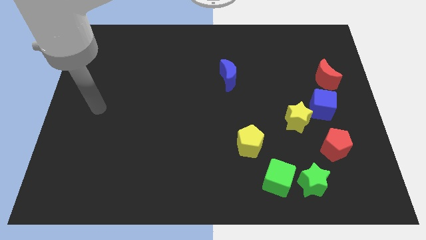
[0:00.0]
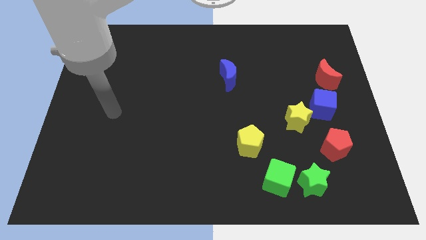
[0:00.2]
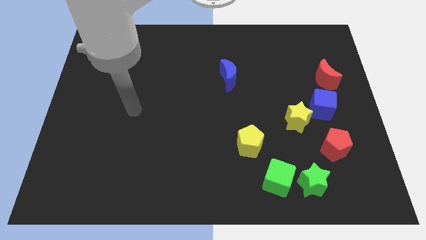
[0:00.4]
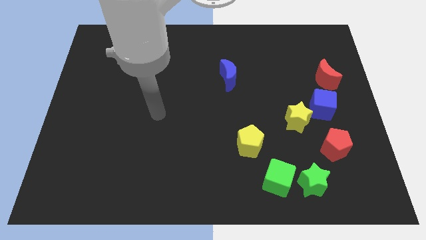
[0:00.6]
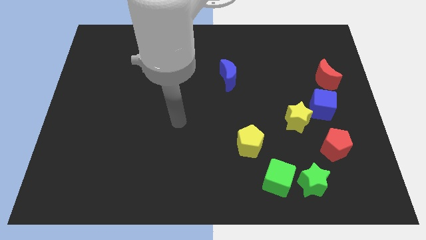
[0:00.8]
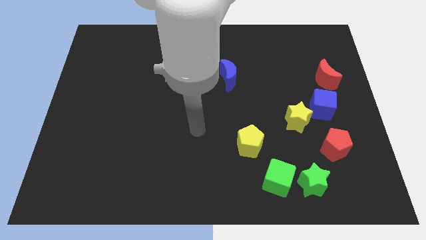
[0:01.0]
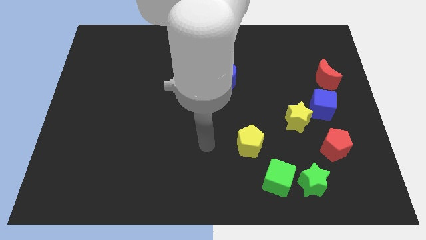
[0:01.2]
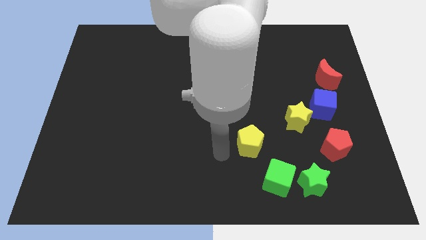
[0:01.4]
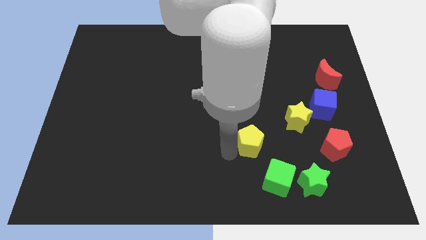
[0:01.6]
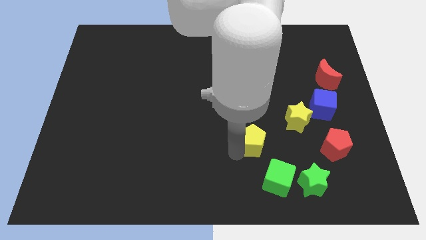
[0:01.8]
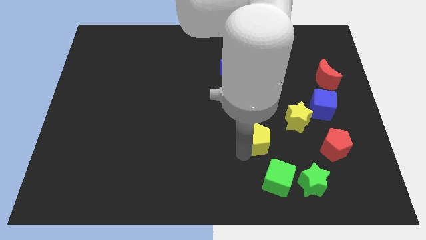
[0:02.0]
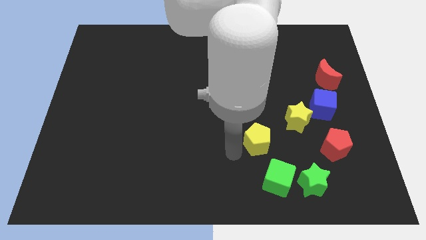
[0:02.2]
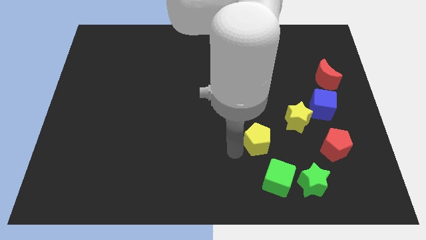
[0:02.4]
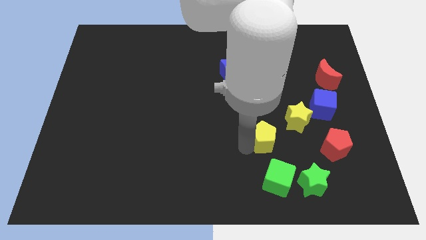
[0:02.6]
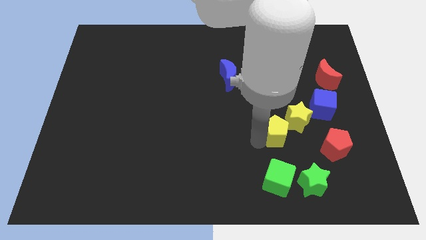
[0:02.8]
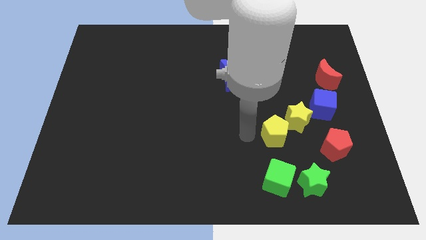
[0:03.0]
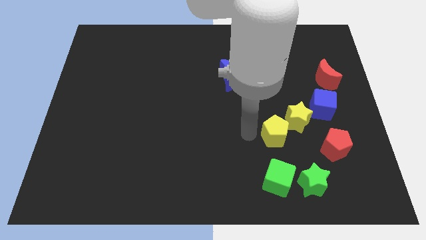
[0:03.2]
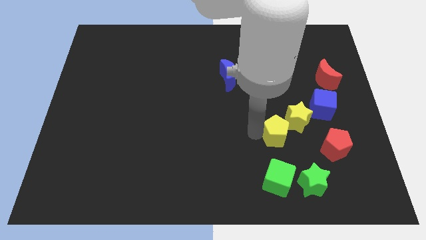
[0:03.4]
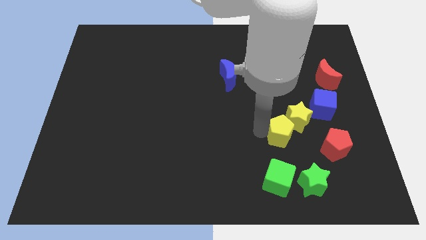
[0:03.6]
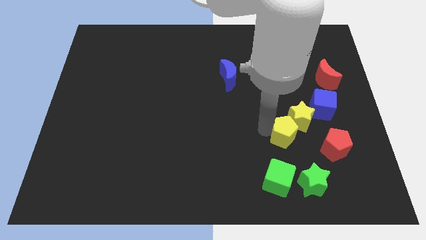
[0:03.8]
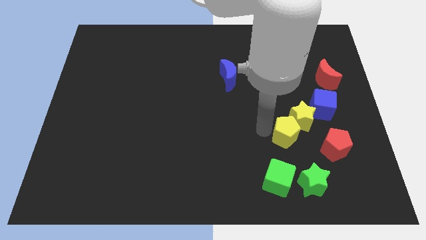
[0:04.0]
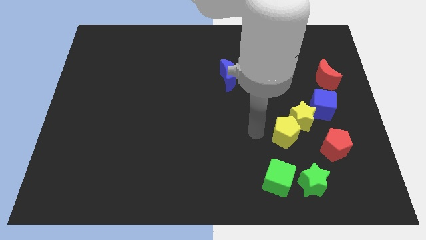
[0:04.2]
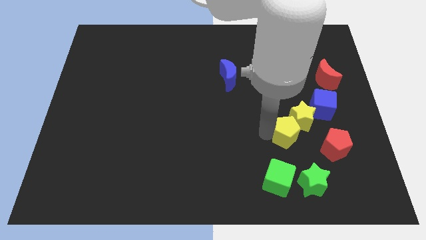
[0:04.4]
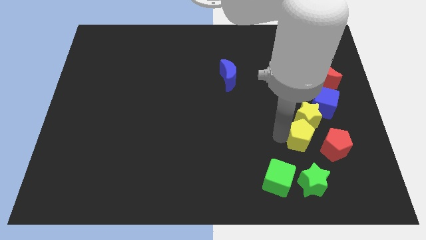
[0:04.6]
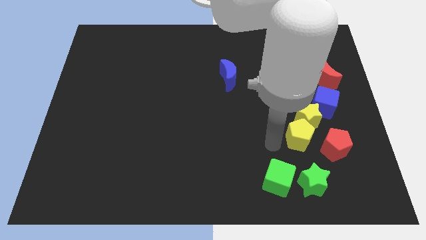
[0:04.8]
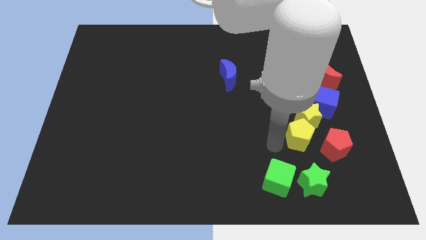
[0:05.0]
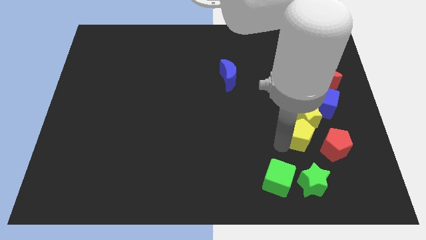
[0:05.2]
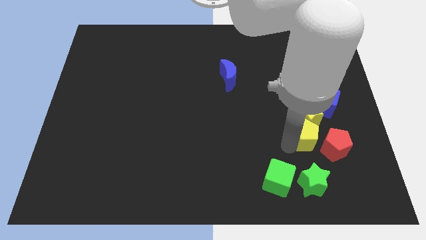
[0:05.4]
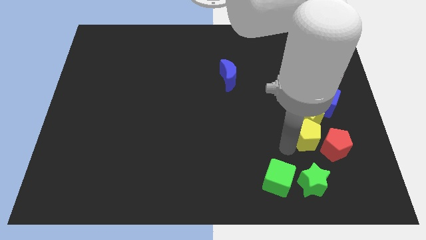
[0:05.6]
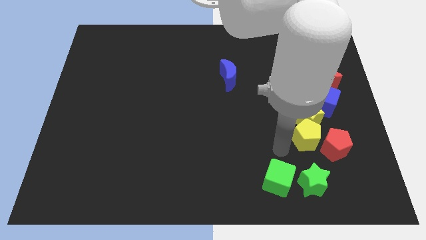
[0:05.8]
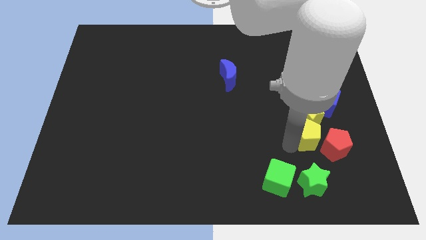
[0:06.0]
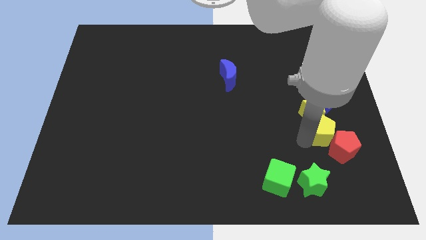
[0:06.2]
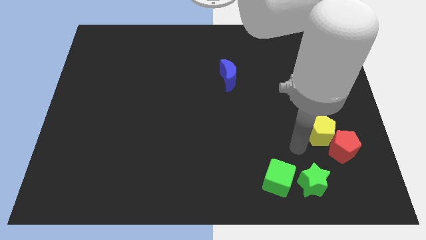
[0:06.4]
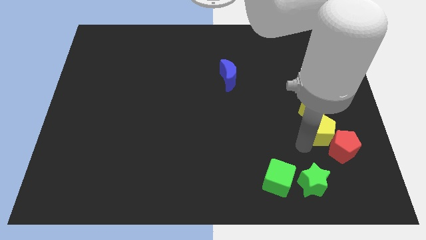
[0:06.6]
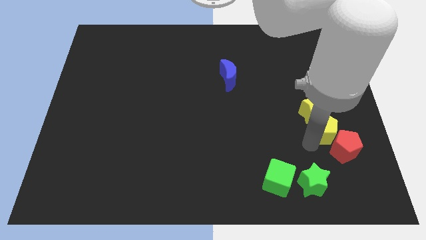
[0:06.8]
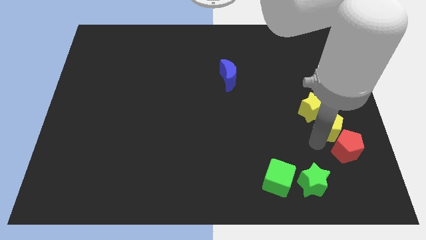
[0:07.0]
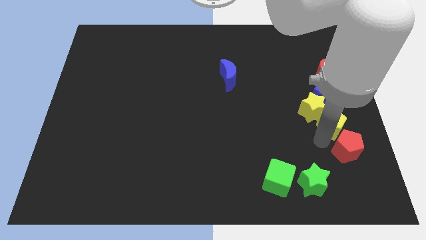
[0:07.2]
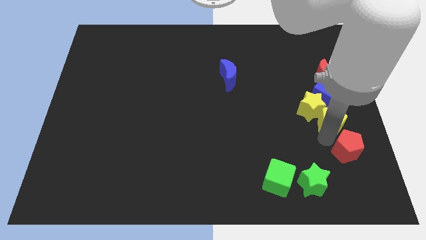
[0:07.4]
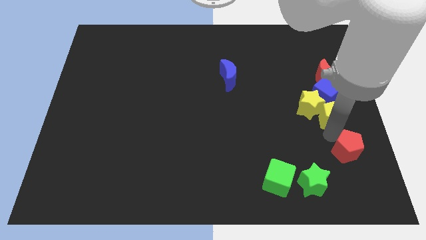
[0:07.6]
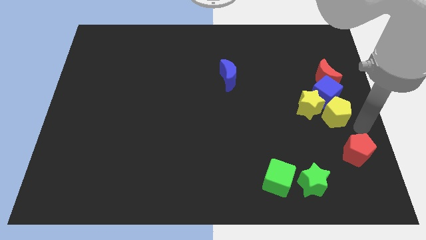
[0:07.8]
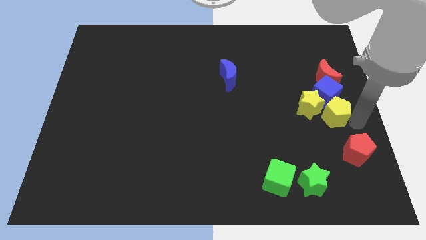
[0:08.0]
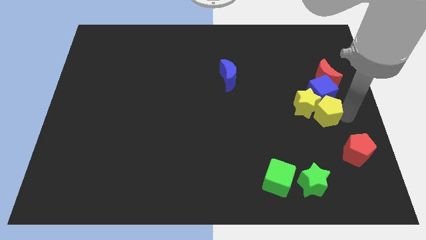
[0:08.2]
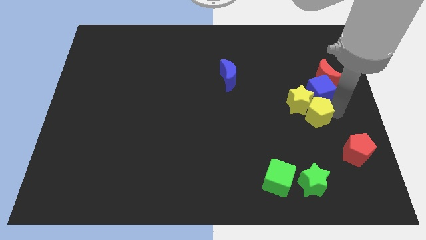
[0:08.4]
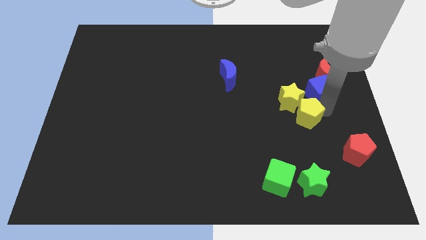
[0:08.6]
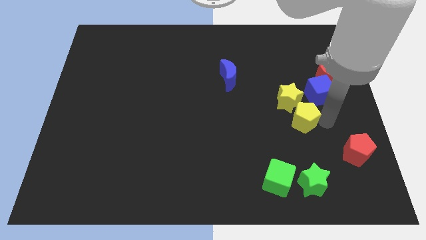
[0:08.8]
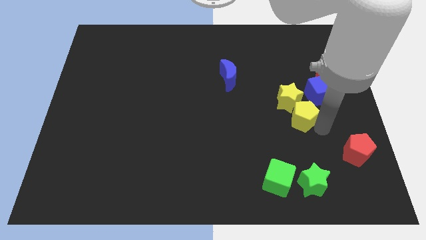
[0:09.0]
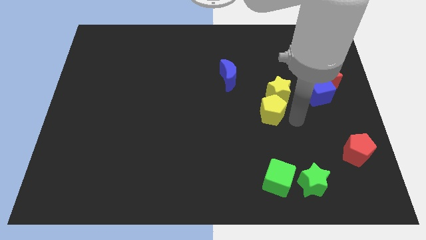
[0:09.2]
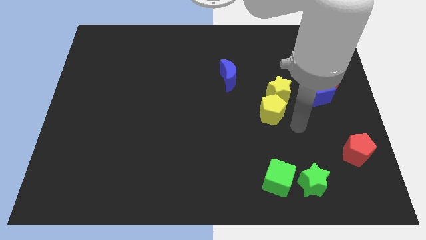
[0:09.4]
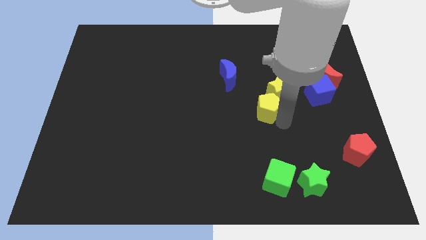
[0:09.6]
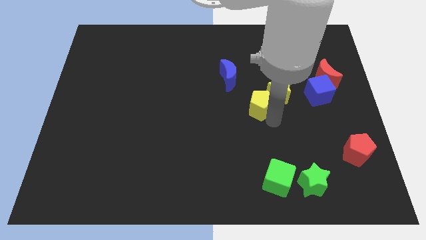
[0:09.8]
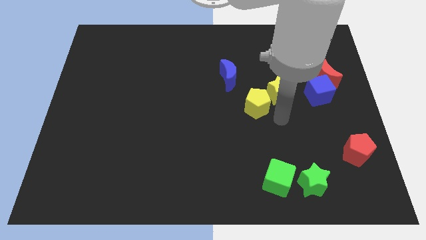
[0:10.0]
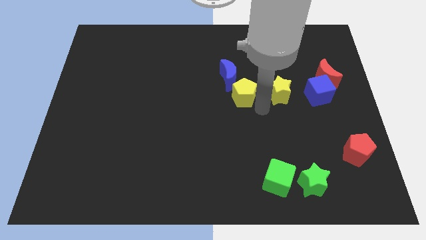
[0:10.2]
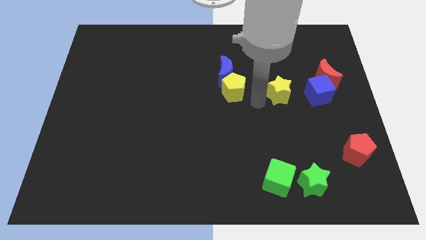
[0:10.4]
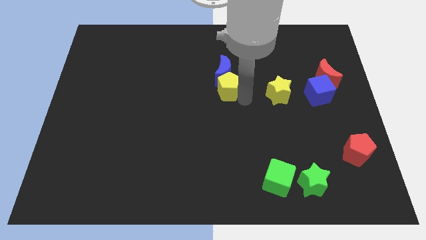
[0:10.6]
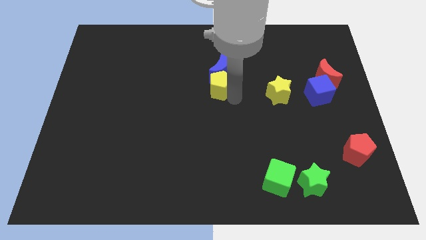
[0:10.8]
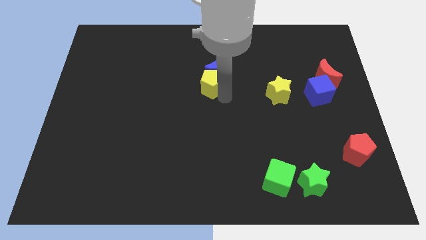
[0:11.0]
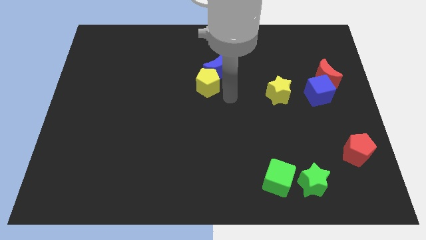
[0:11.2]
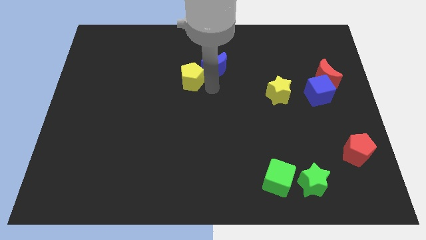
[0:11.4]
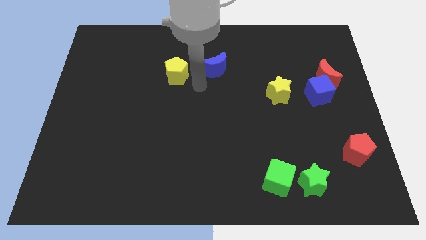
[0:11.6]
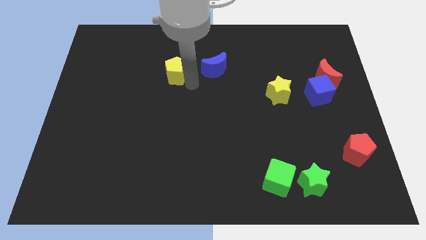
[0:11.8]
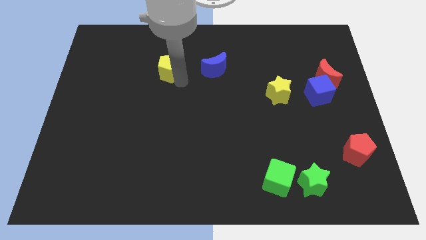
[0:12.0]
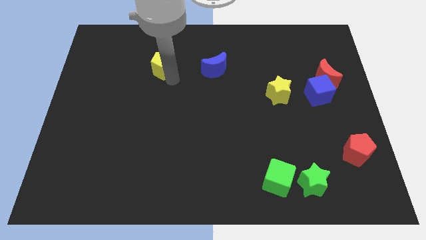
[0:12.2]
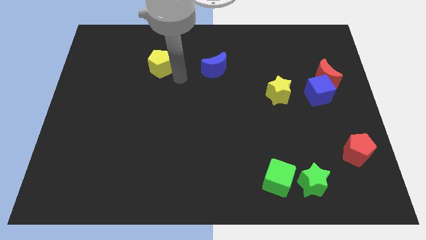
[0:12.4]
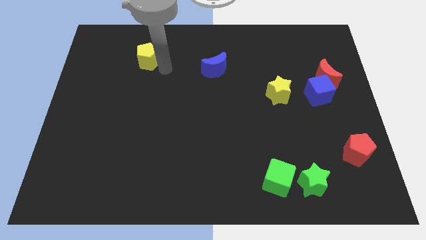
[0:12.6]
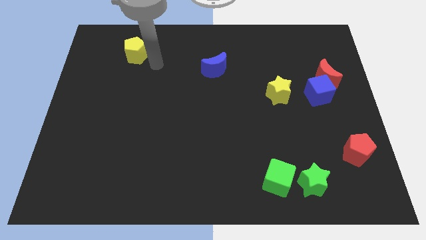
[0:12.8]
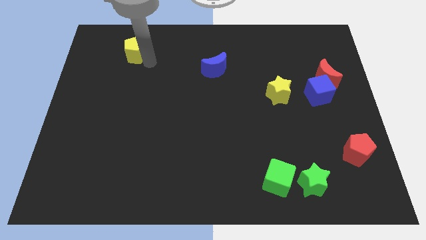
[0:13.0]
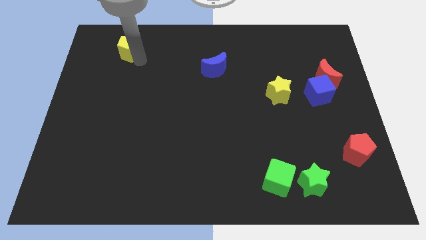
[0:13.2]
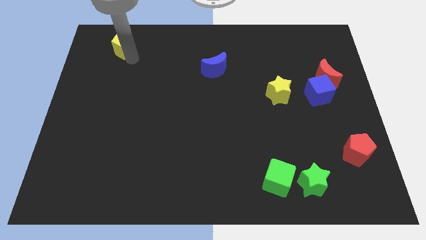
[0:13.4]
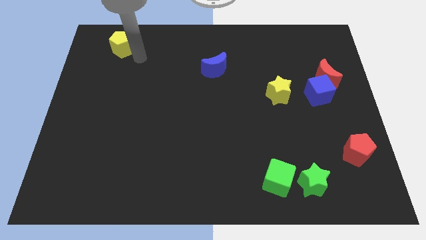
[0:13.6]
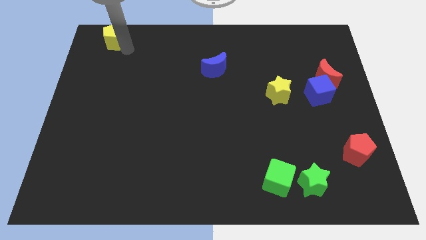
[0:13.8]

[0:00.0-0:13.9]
put the yellow pentagon to the top left

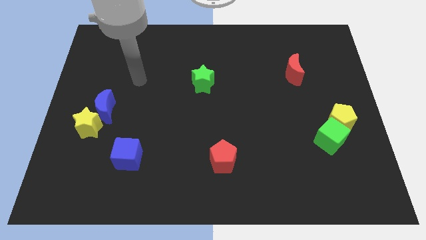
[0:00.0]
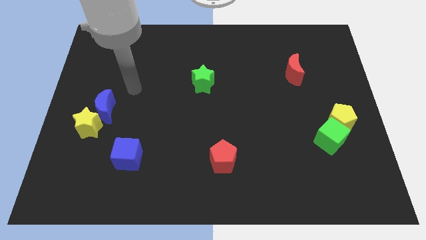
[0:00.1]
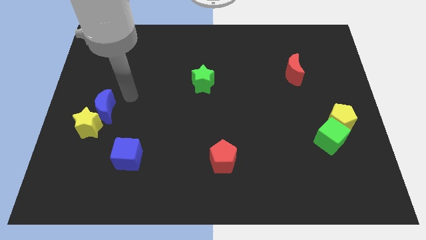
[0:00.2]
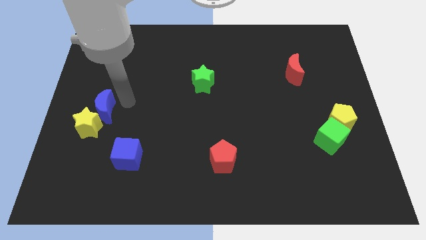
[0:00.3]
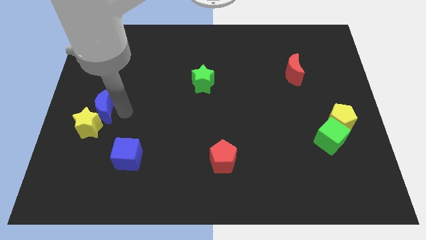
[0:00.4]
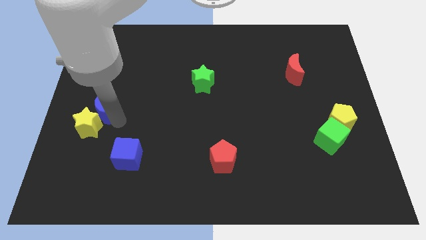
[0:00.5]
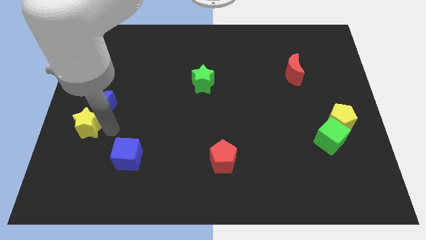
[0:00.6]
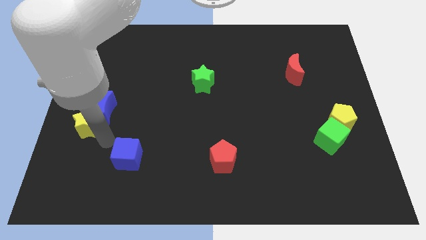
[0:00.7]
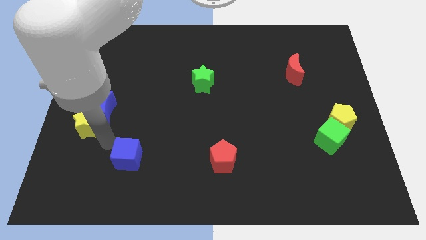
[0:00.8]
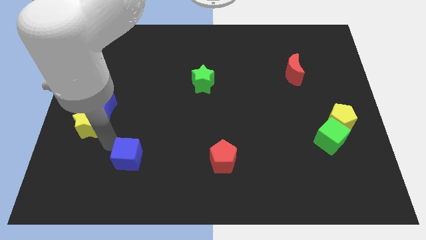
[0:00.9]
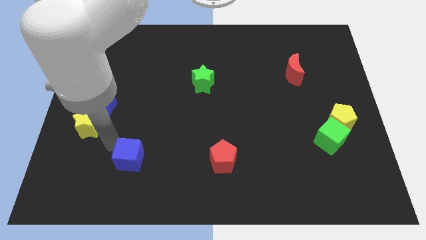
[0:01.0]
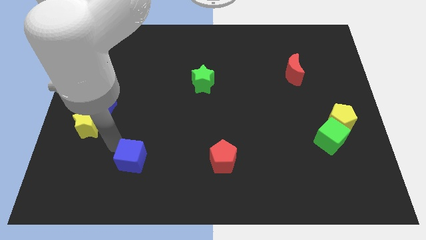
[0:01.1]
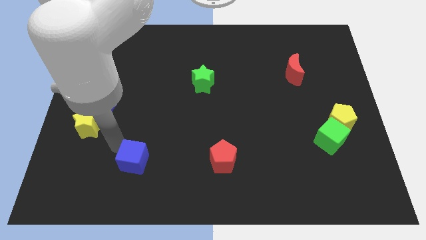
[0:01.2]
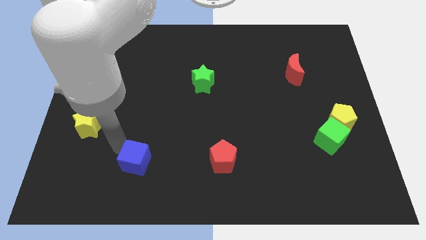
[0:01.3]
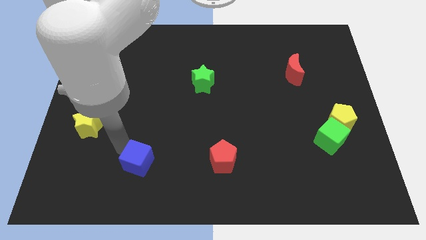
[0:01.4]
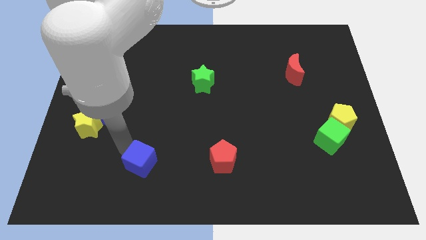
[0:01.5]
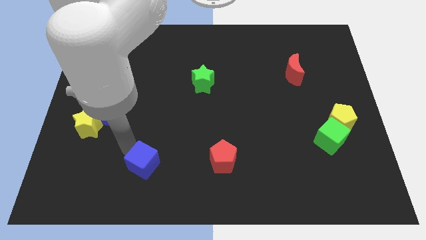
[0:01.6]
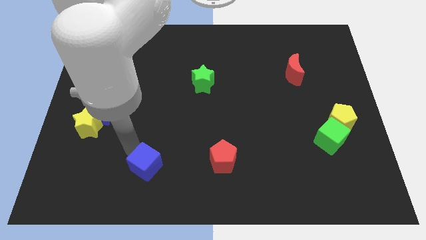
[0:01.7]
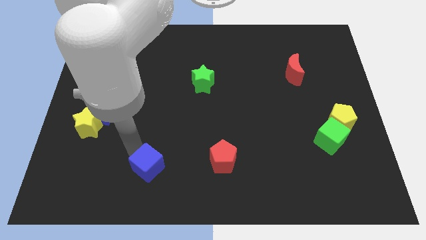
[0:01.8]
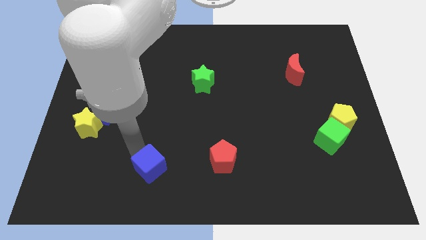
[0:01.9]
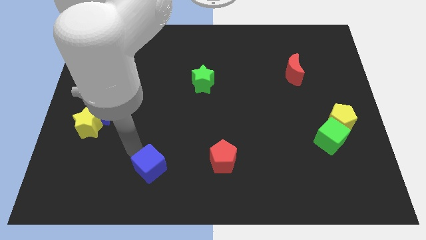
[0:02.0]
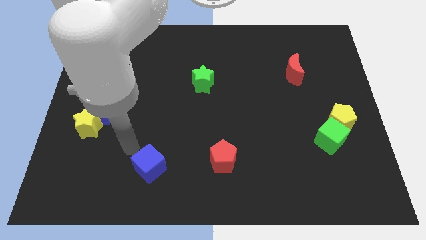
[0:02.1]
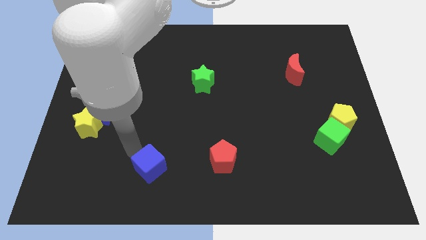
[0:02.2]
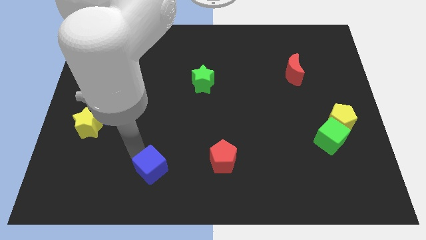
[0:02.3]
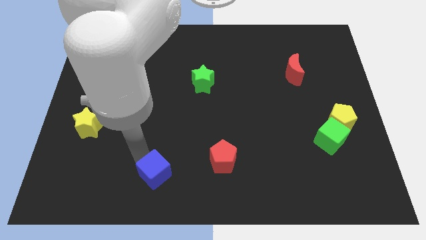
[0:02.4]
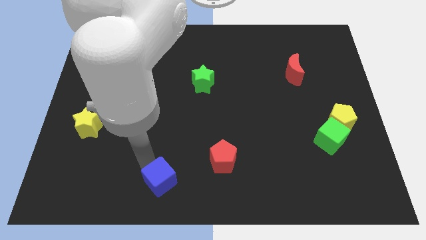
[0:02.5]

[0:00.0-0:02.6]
push the blue cube to the bottom
